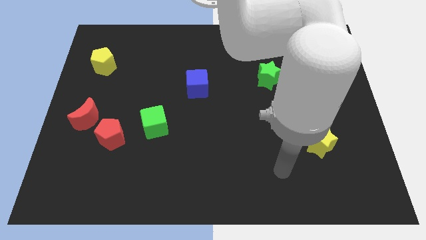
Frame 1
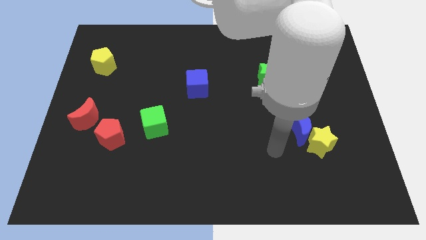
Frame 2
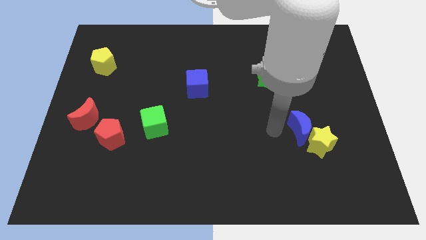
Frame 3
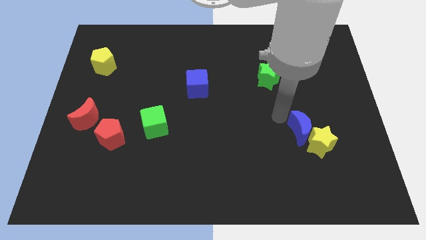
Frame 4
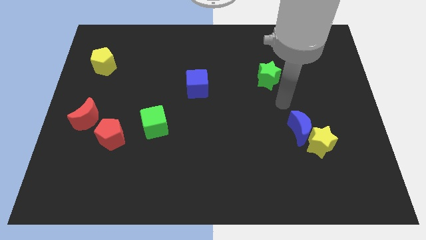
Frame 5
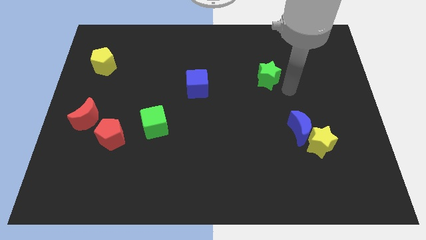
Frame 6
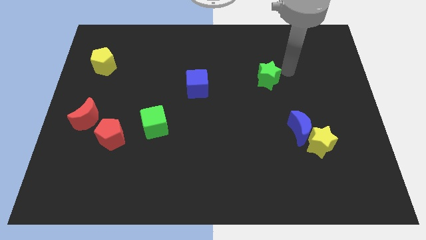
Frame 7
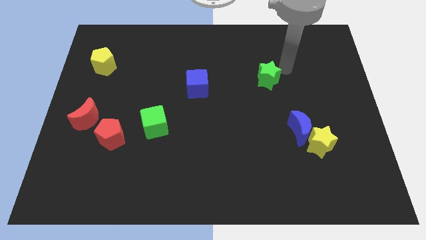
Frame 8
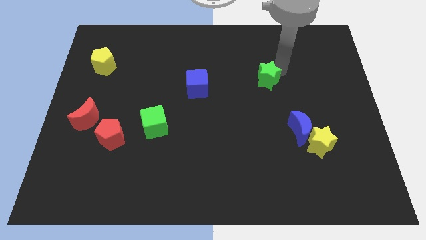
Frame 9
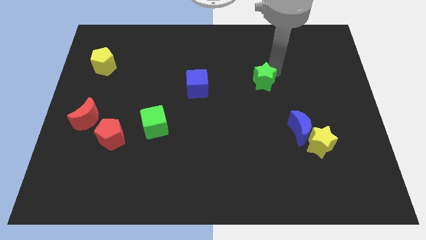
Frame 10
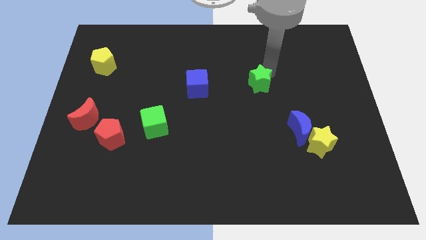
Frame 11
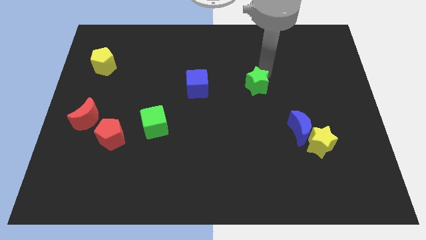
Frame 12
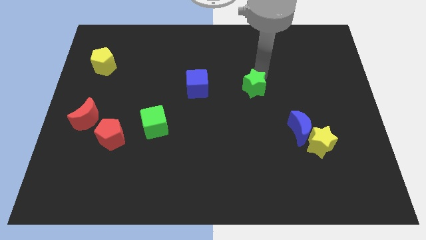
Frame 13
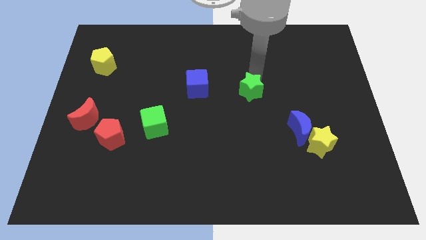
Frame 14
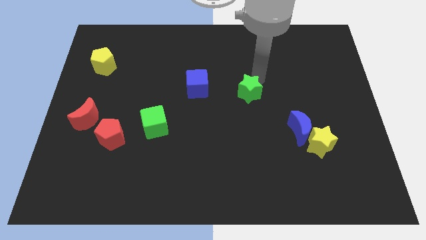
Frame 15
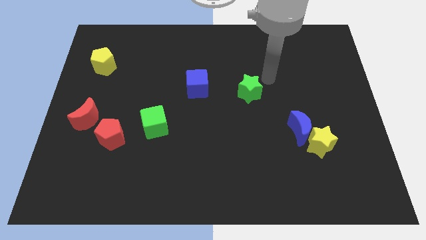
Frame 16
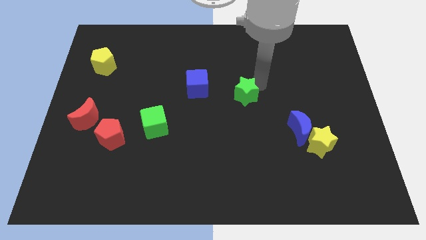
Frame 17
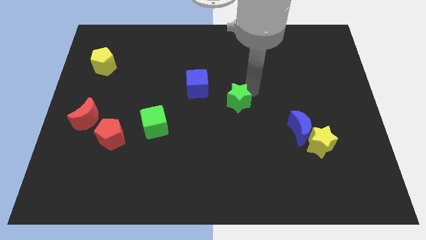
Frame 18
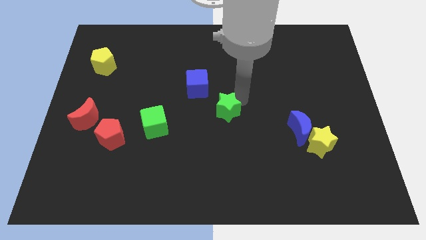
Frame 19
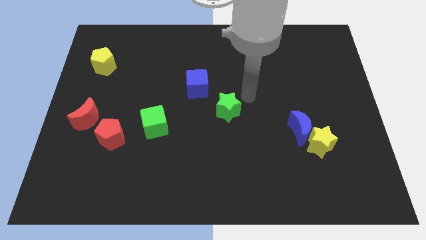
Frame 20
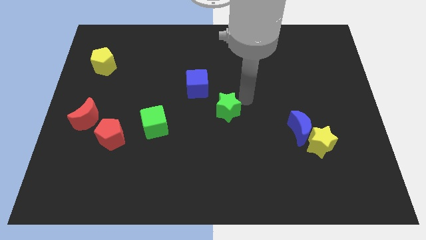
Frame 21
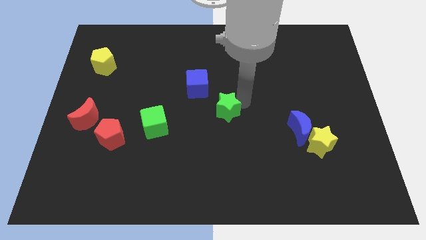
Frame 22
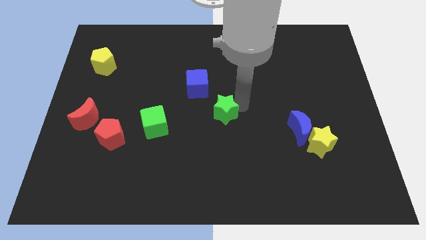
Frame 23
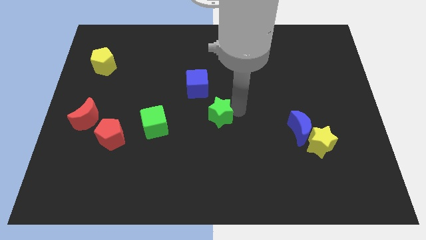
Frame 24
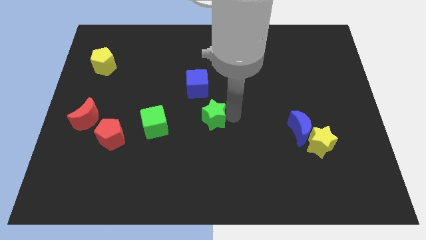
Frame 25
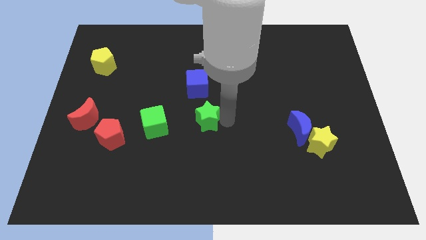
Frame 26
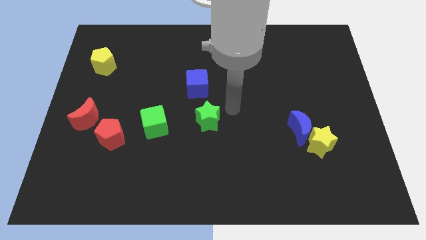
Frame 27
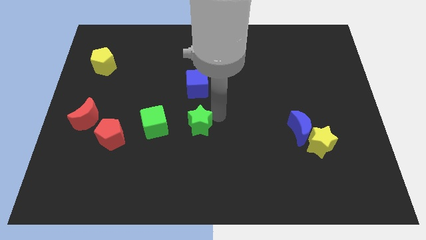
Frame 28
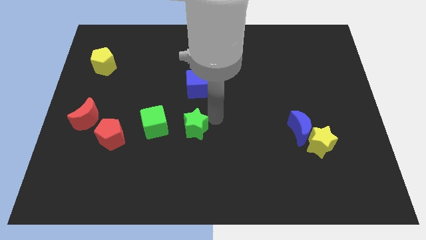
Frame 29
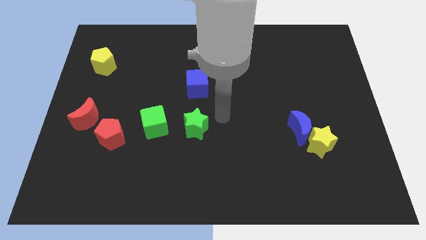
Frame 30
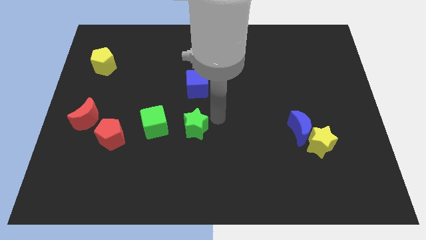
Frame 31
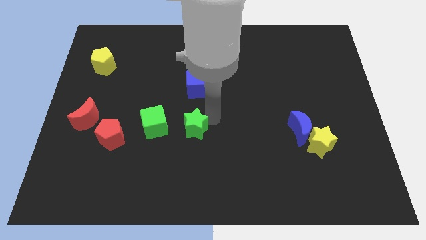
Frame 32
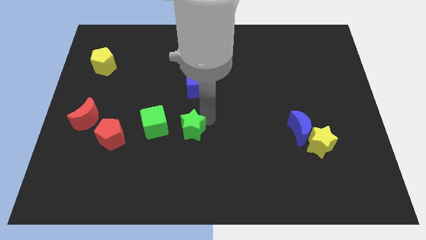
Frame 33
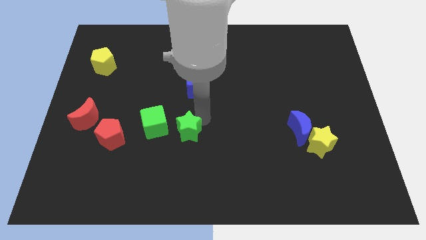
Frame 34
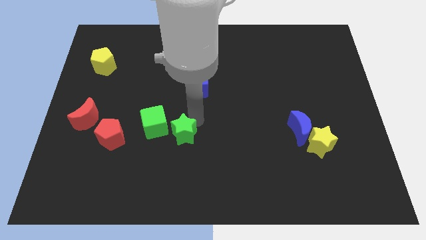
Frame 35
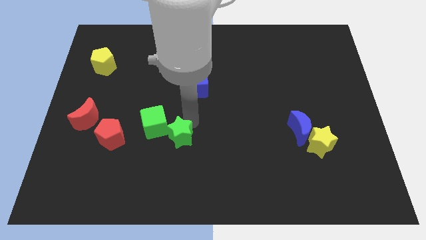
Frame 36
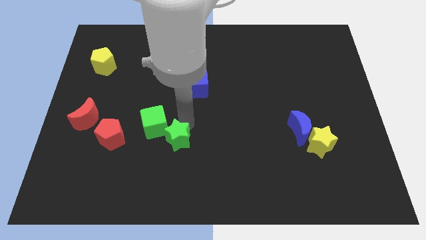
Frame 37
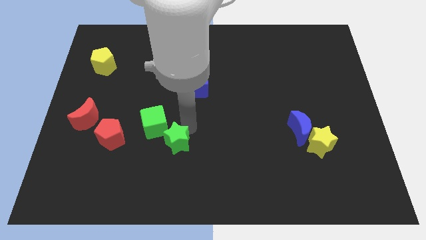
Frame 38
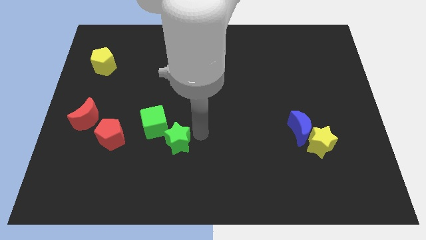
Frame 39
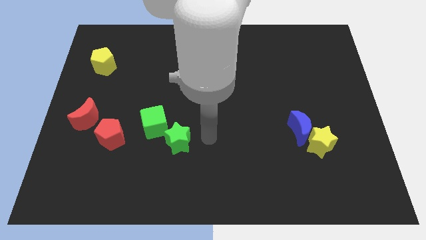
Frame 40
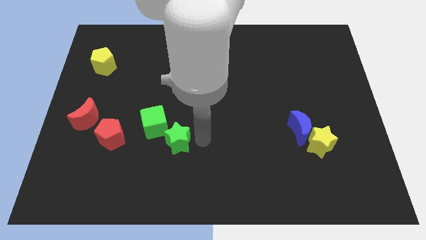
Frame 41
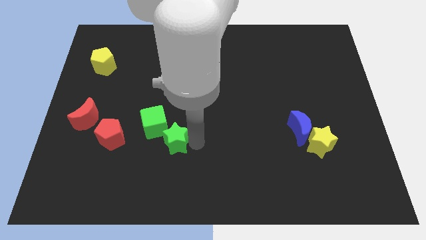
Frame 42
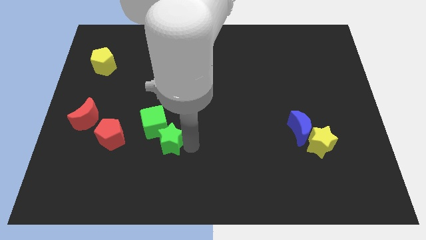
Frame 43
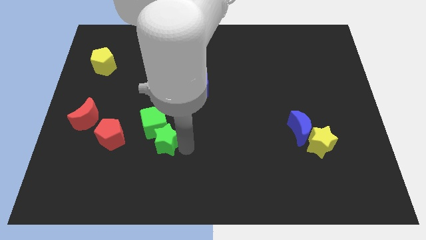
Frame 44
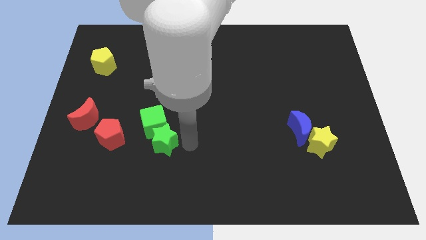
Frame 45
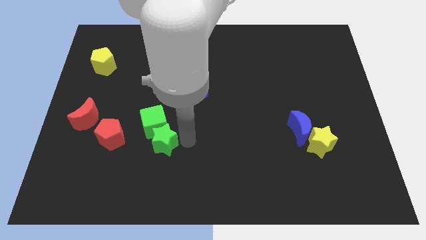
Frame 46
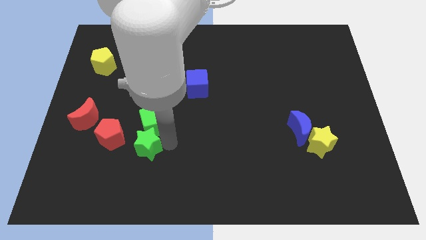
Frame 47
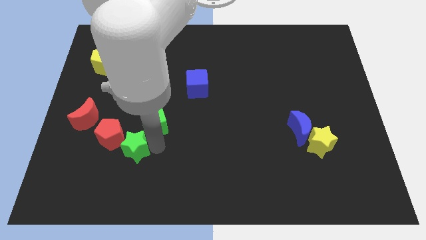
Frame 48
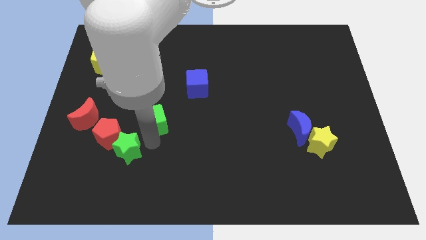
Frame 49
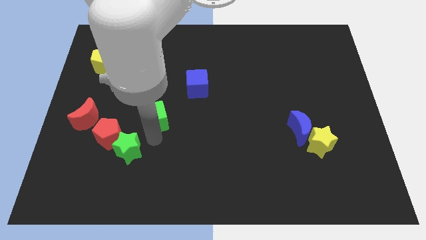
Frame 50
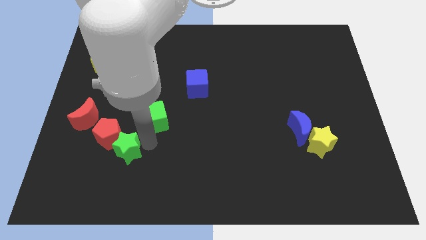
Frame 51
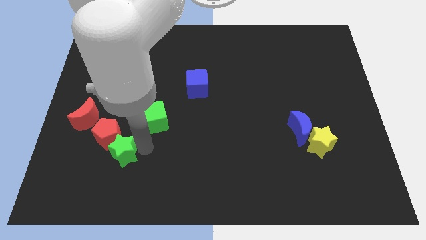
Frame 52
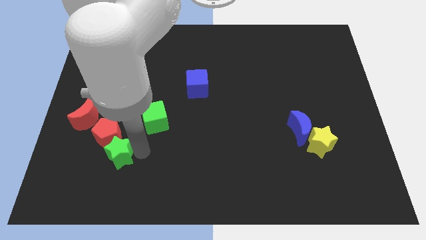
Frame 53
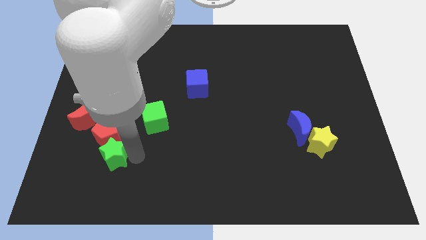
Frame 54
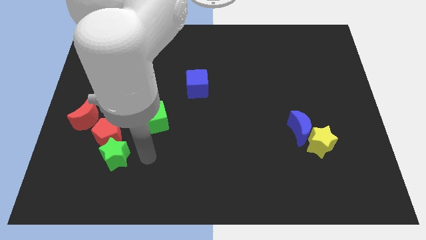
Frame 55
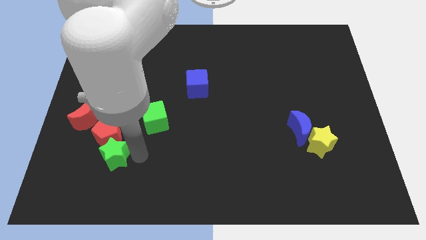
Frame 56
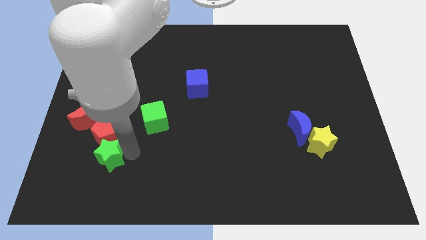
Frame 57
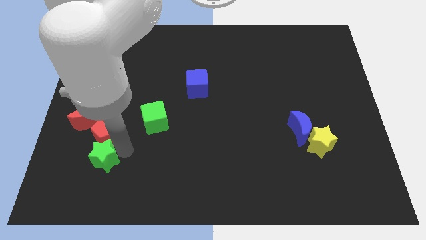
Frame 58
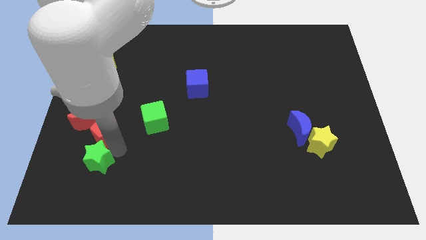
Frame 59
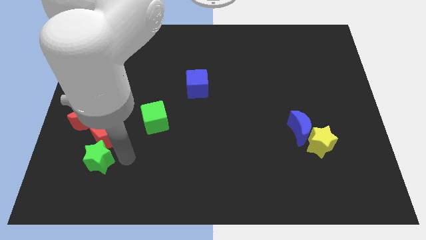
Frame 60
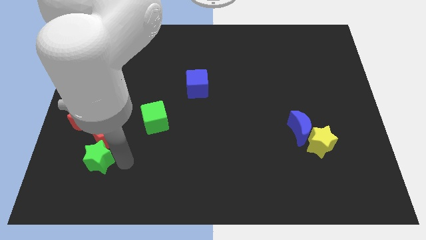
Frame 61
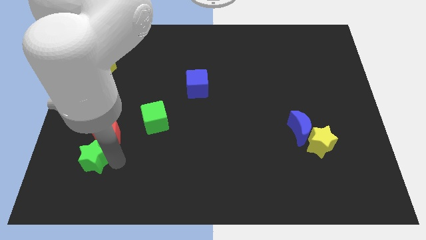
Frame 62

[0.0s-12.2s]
put the green star to the bottom side of the red moon

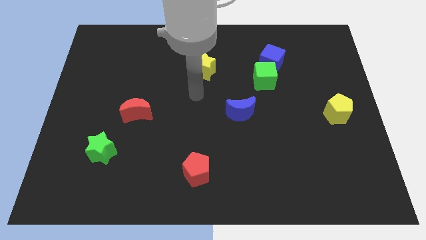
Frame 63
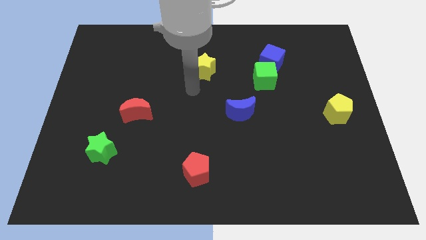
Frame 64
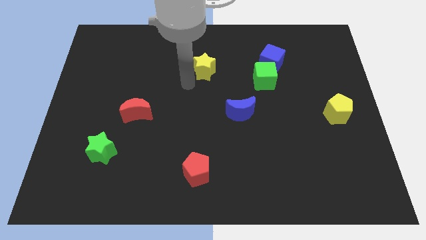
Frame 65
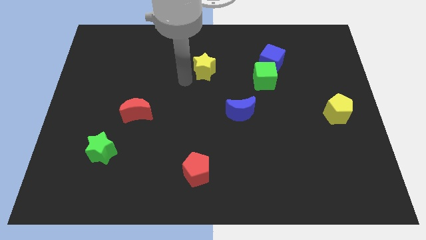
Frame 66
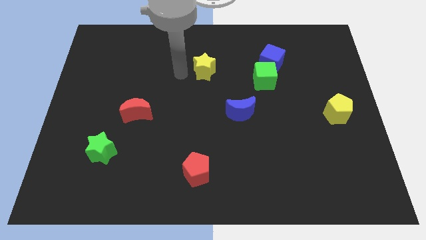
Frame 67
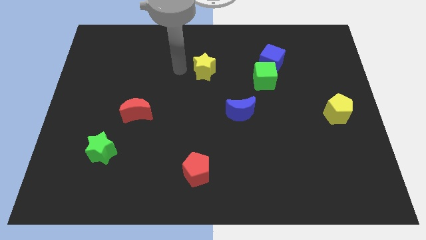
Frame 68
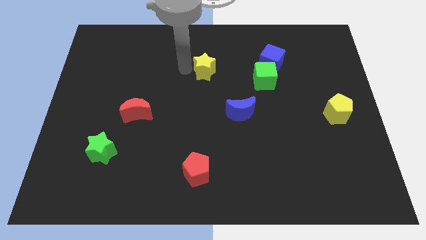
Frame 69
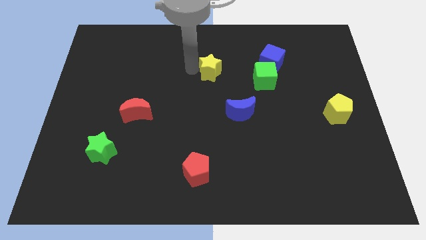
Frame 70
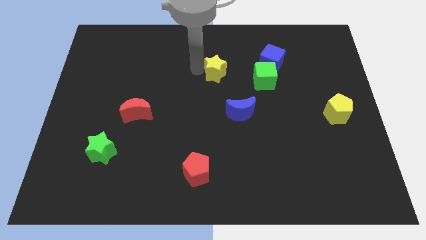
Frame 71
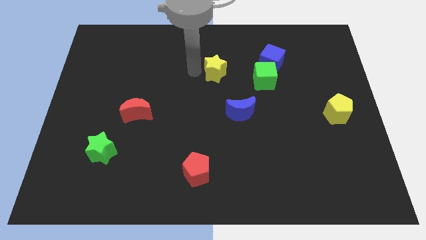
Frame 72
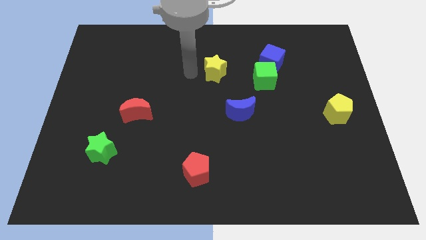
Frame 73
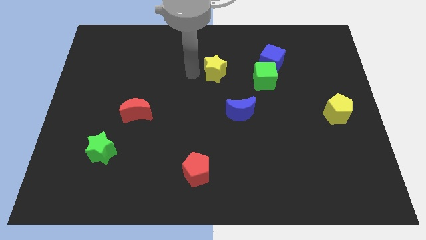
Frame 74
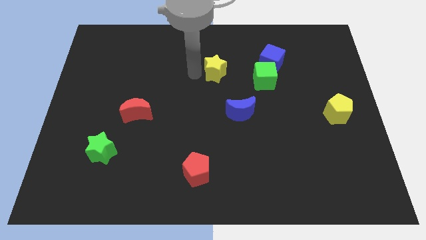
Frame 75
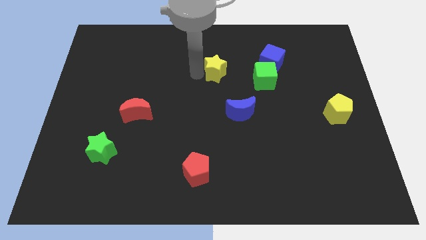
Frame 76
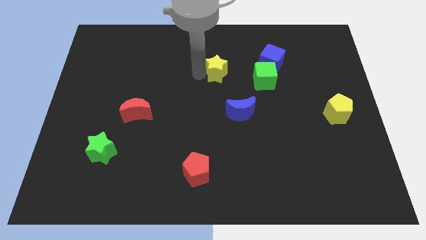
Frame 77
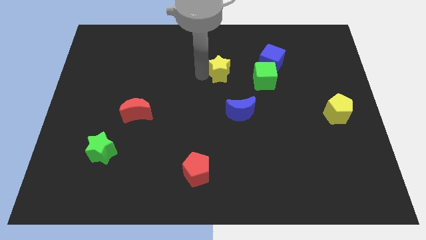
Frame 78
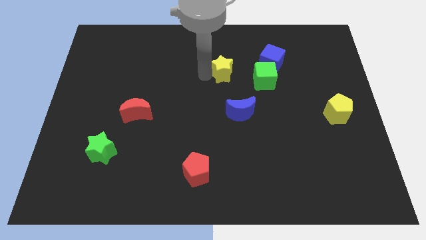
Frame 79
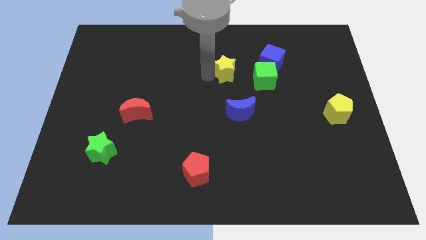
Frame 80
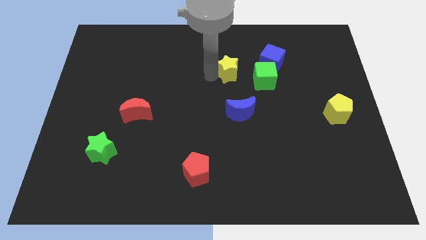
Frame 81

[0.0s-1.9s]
slide the yellow star to the top left of the green cube
